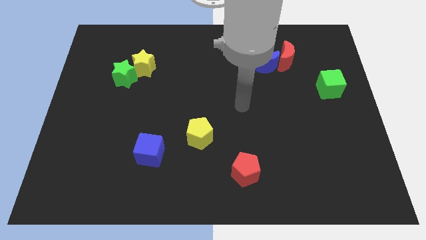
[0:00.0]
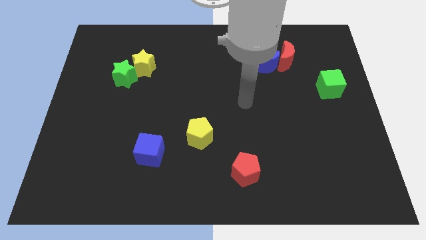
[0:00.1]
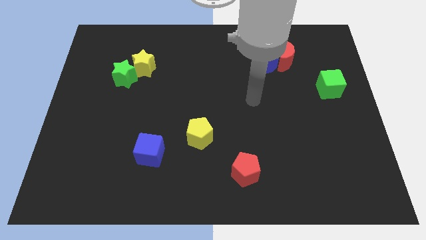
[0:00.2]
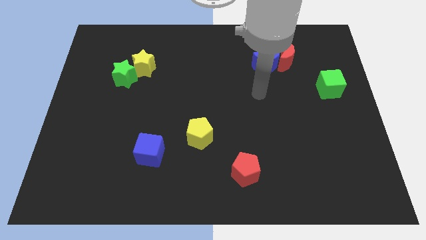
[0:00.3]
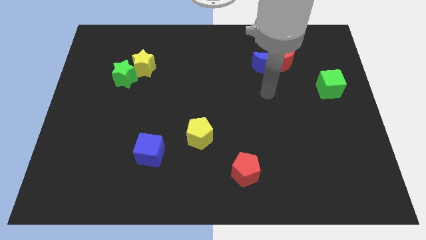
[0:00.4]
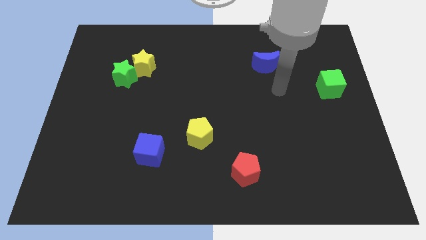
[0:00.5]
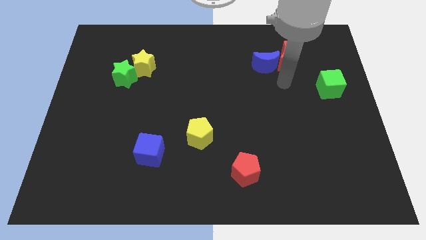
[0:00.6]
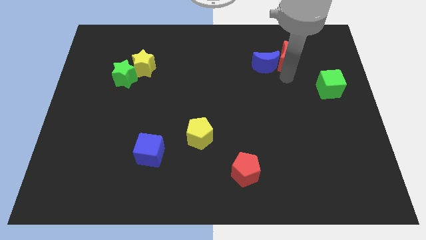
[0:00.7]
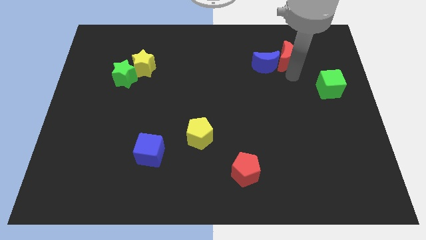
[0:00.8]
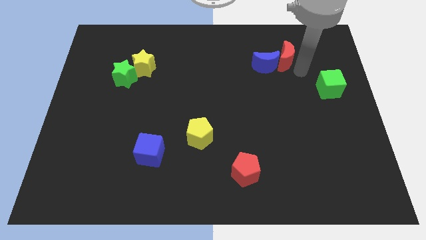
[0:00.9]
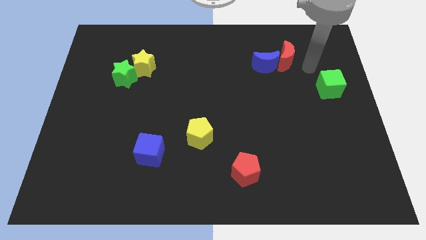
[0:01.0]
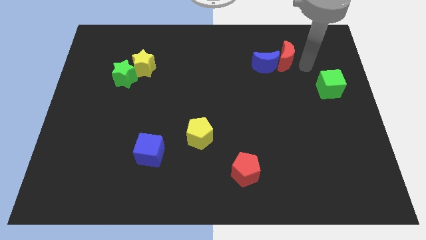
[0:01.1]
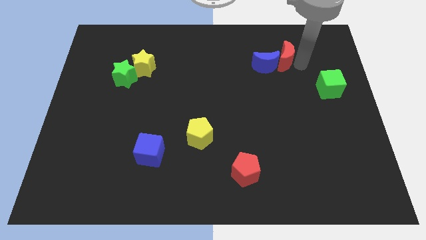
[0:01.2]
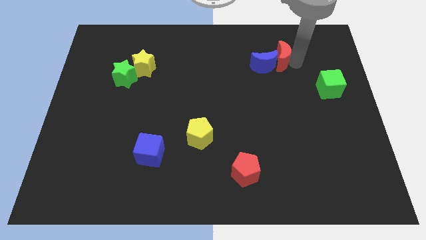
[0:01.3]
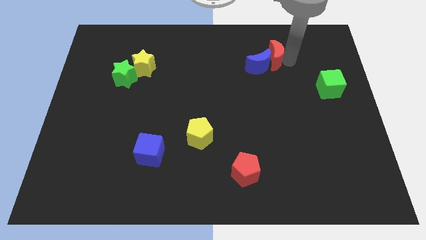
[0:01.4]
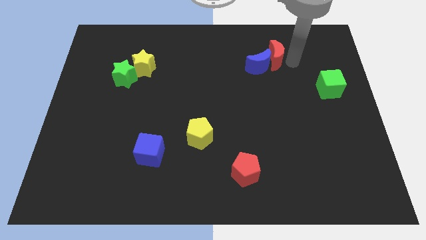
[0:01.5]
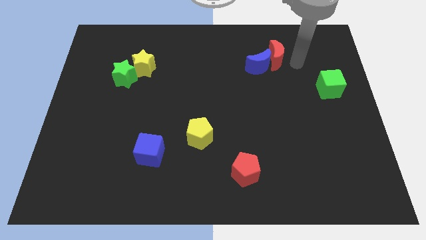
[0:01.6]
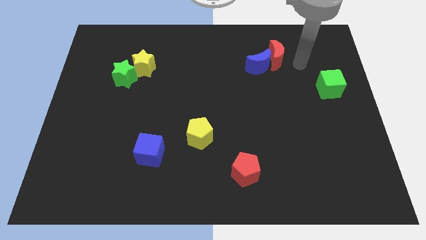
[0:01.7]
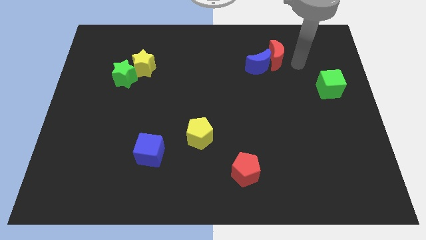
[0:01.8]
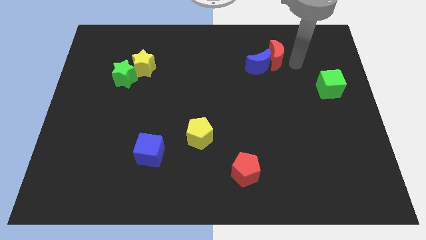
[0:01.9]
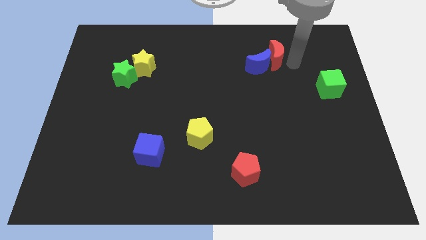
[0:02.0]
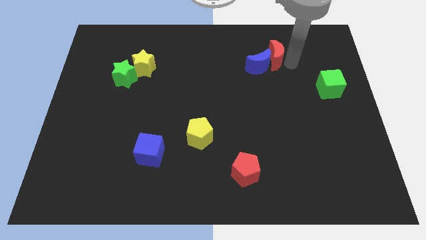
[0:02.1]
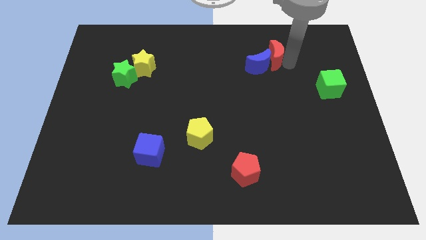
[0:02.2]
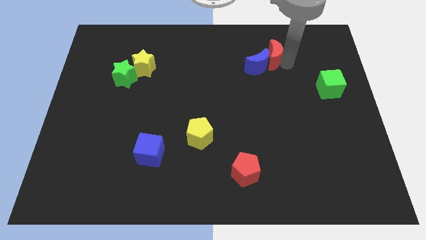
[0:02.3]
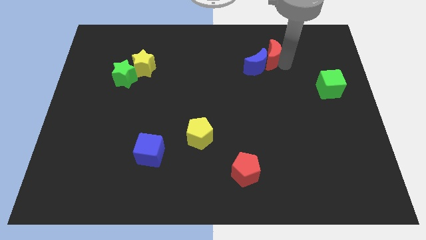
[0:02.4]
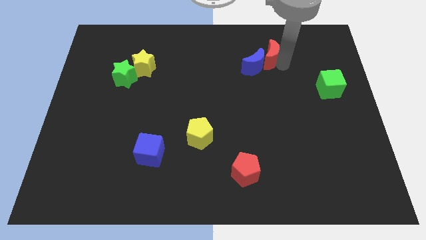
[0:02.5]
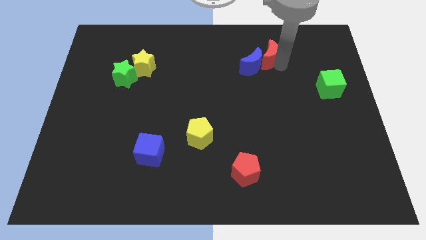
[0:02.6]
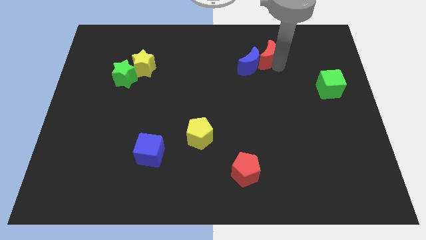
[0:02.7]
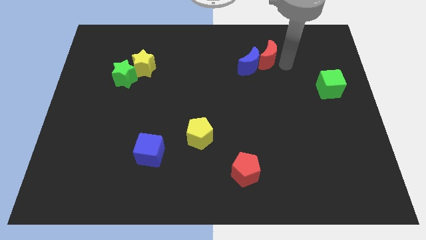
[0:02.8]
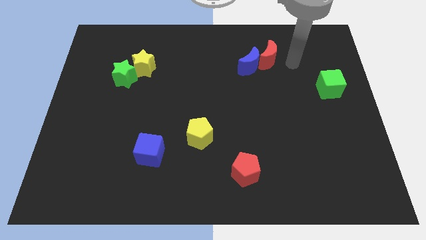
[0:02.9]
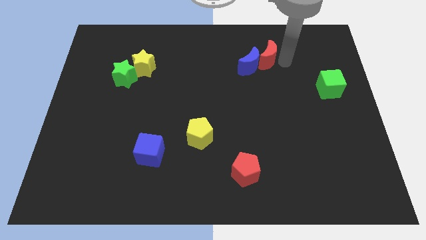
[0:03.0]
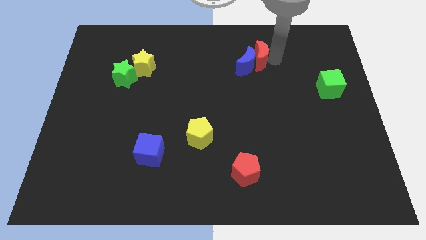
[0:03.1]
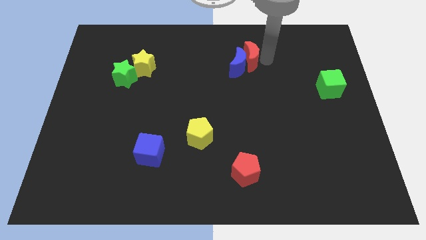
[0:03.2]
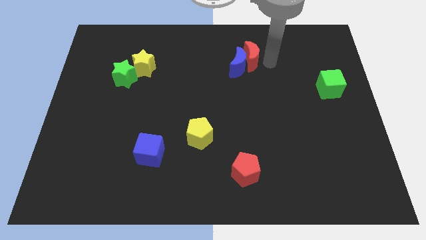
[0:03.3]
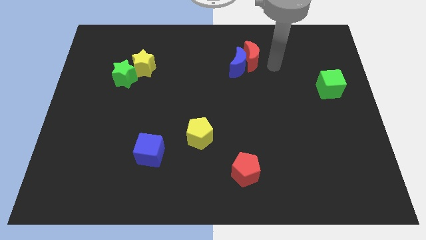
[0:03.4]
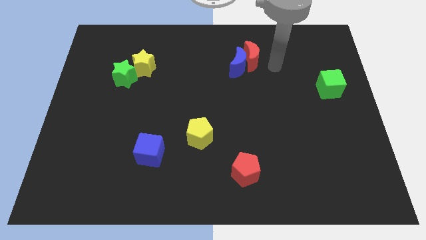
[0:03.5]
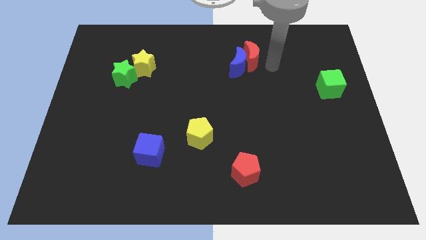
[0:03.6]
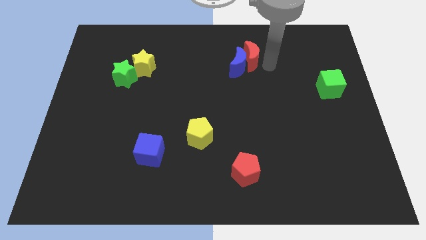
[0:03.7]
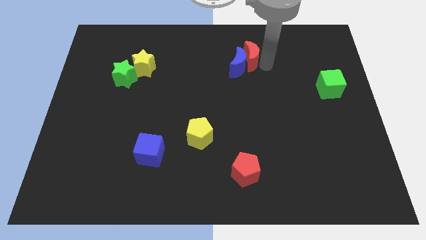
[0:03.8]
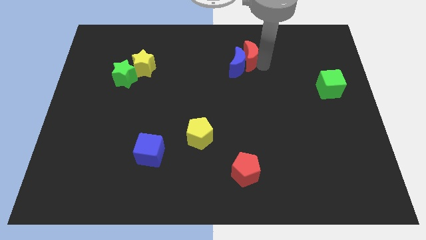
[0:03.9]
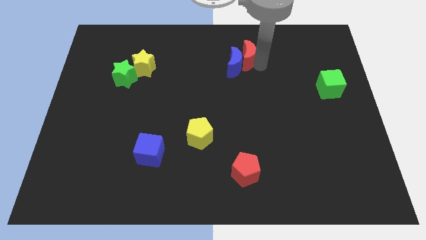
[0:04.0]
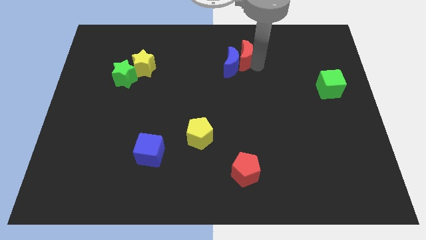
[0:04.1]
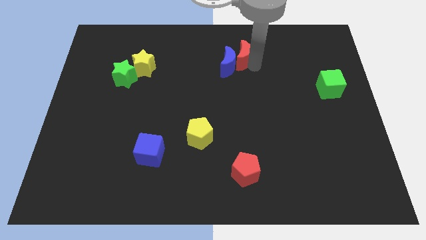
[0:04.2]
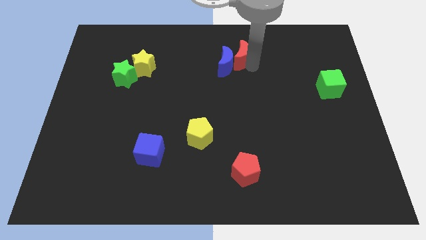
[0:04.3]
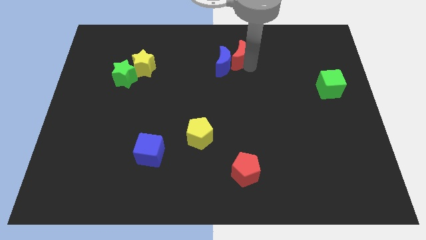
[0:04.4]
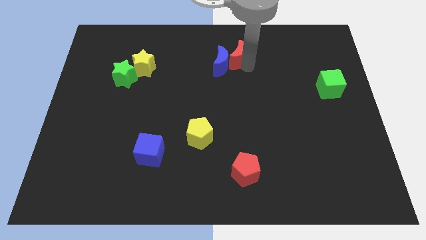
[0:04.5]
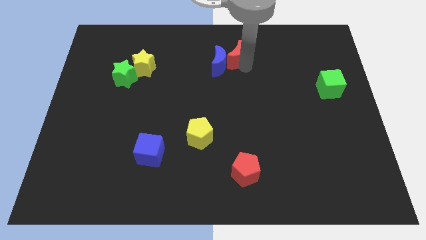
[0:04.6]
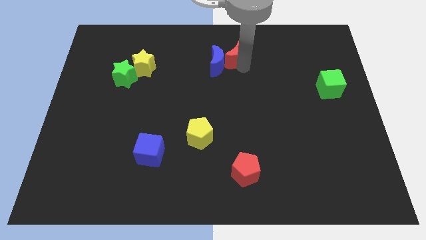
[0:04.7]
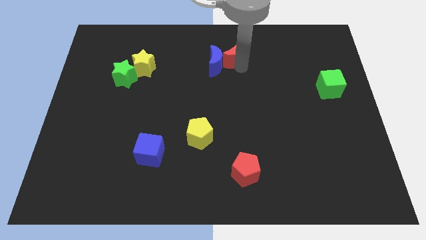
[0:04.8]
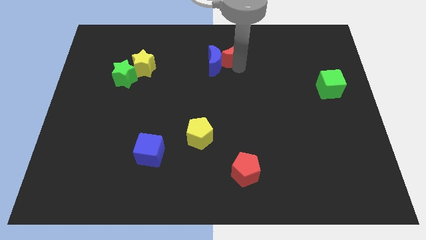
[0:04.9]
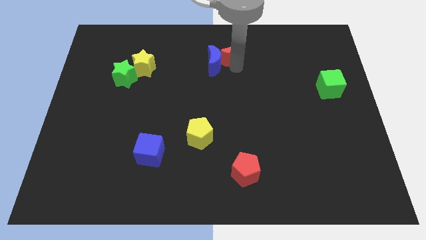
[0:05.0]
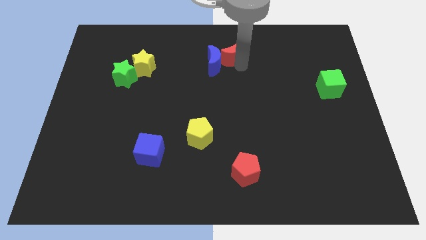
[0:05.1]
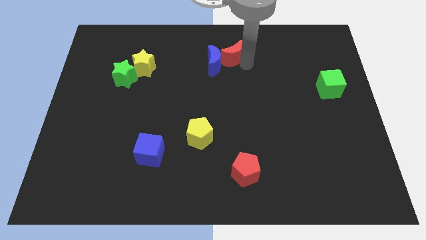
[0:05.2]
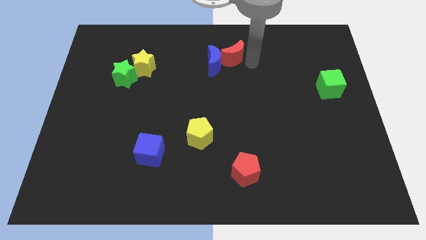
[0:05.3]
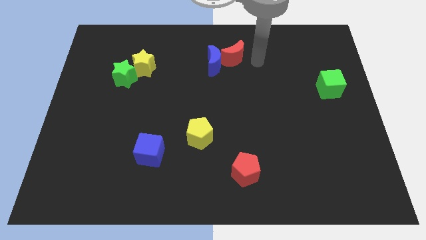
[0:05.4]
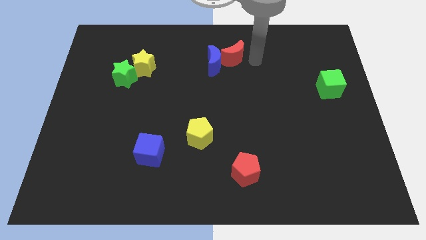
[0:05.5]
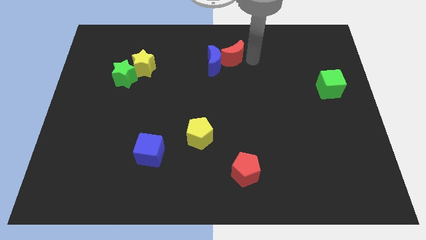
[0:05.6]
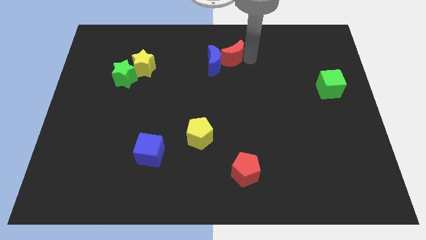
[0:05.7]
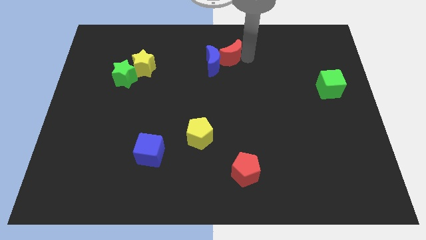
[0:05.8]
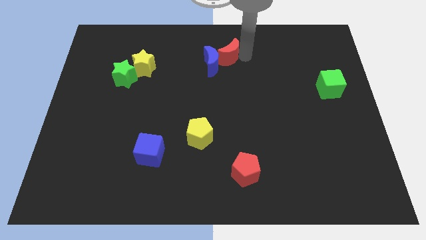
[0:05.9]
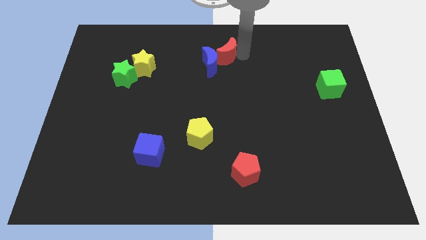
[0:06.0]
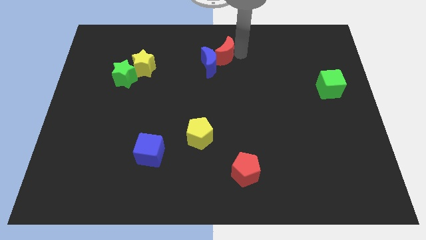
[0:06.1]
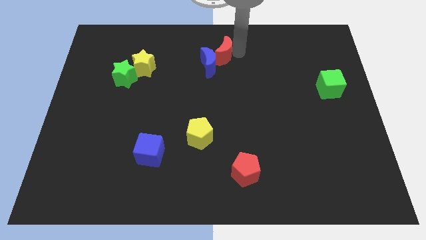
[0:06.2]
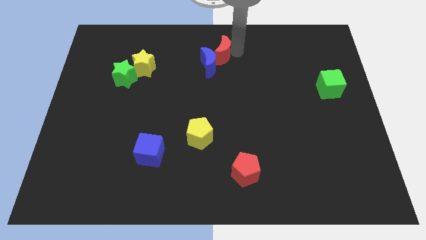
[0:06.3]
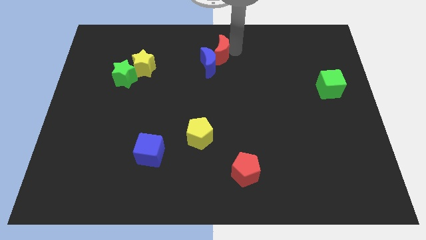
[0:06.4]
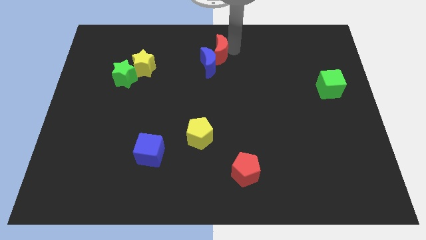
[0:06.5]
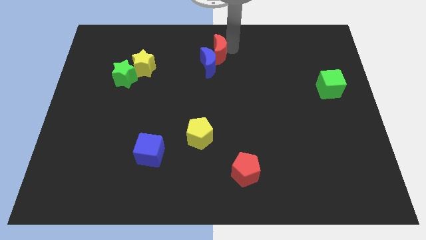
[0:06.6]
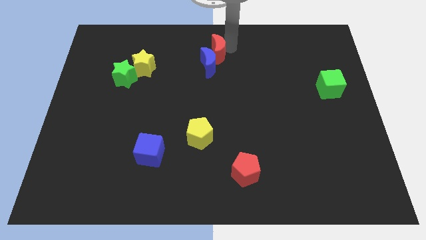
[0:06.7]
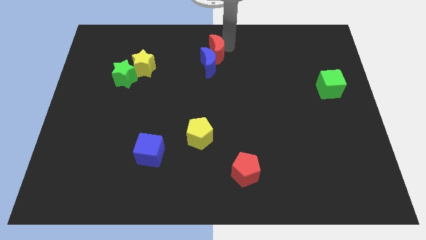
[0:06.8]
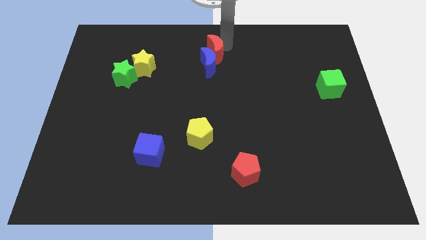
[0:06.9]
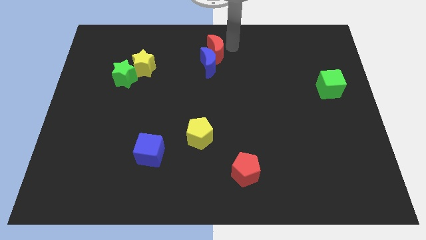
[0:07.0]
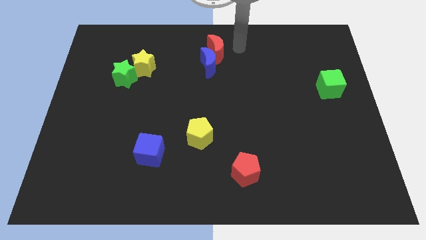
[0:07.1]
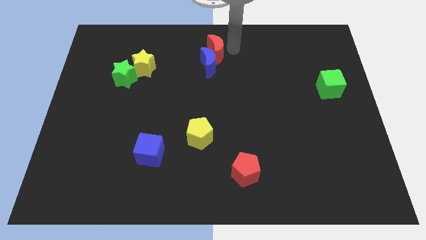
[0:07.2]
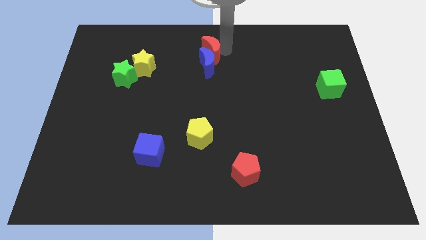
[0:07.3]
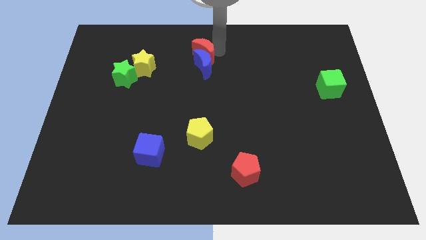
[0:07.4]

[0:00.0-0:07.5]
slide the red moon left

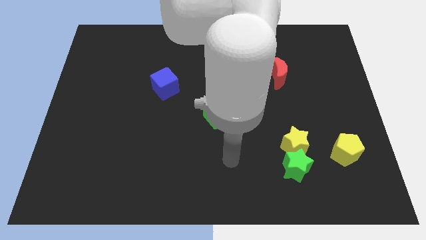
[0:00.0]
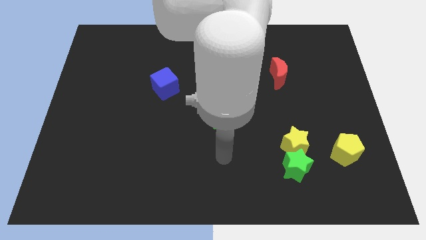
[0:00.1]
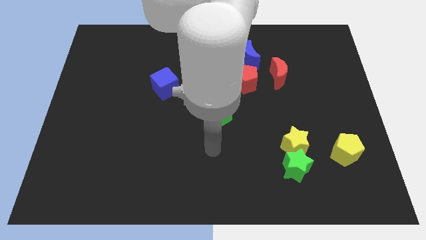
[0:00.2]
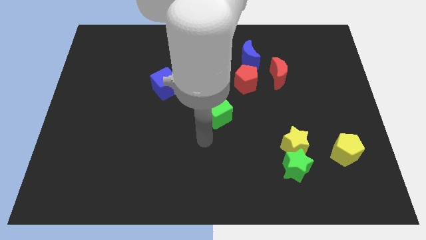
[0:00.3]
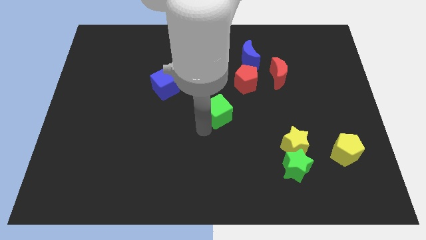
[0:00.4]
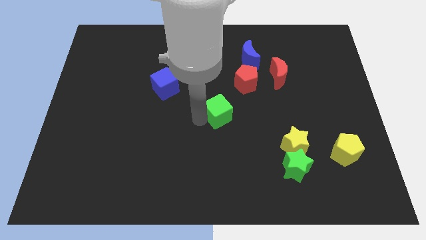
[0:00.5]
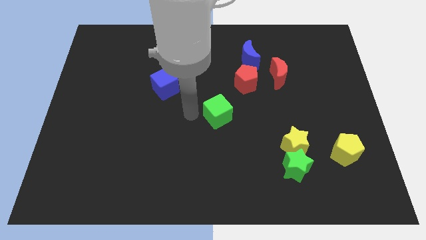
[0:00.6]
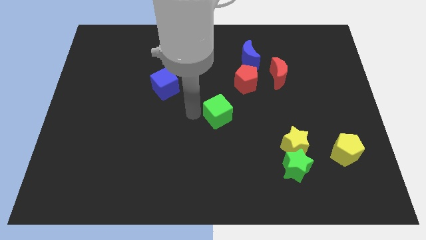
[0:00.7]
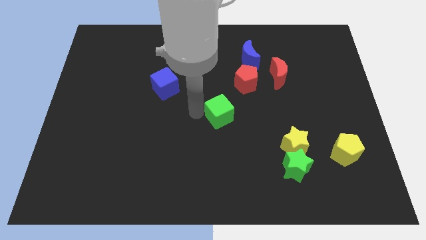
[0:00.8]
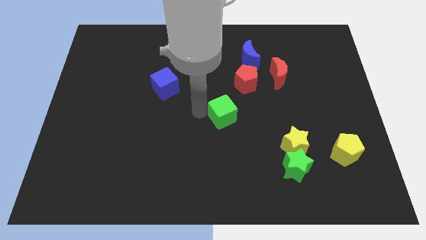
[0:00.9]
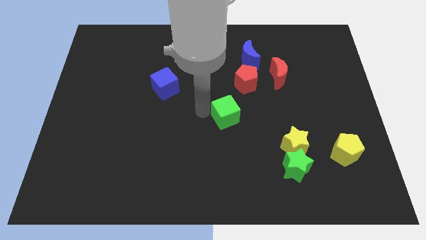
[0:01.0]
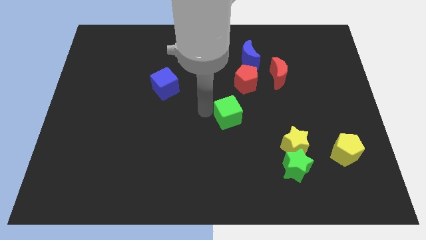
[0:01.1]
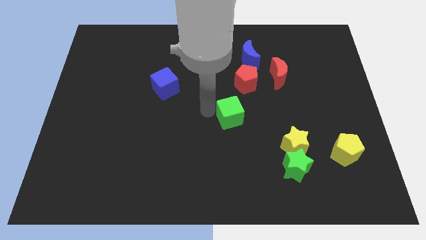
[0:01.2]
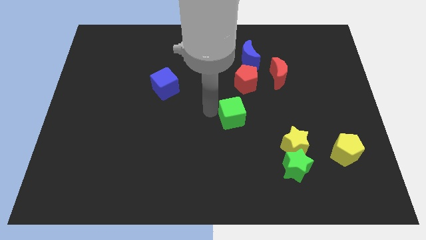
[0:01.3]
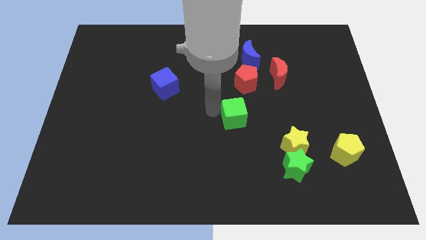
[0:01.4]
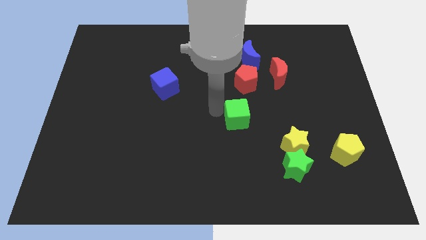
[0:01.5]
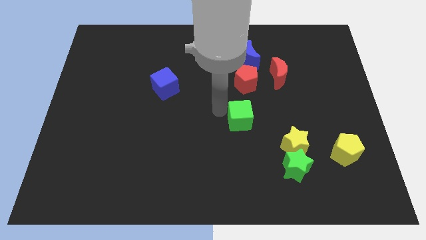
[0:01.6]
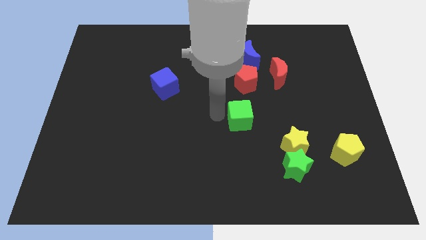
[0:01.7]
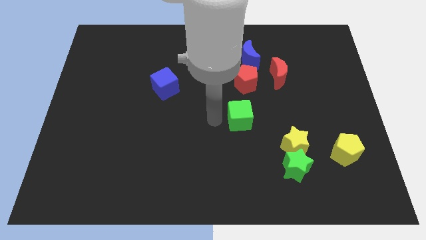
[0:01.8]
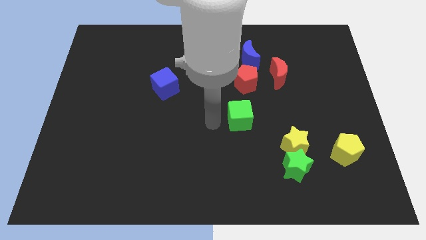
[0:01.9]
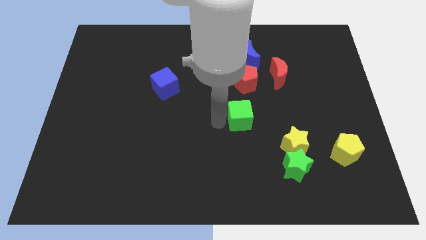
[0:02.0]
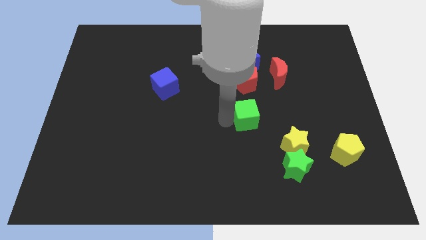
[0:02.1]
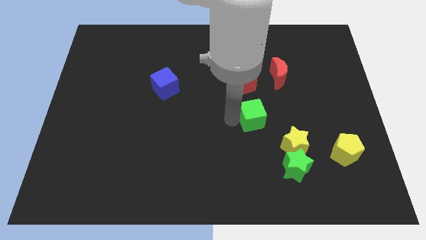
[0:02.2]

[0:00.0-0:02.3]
slightly slide the green cube right
